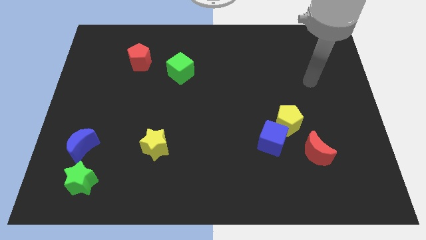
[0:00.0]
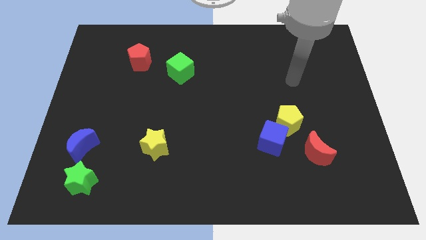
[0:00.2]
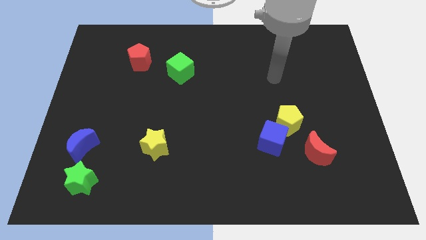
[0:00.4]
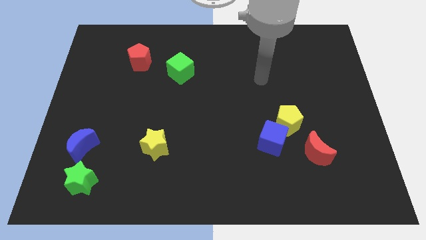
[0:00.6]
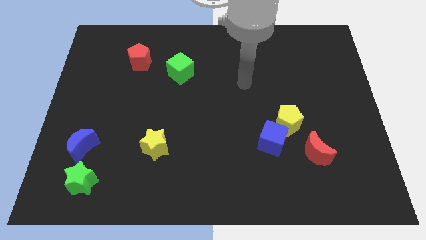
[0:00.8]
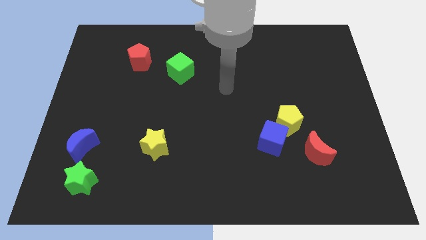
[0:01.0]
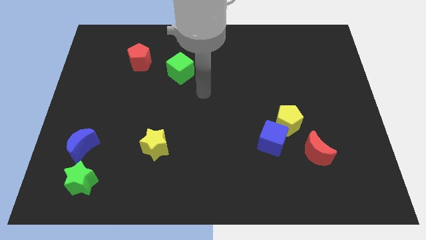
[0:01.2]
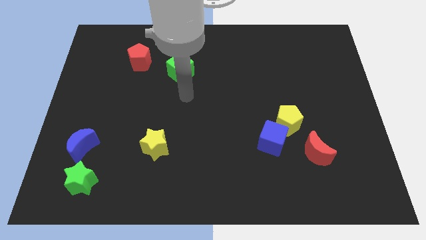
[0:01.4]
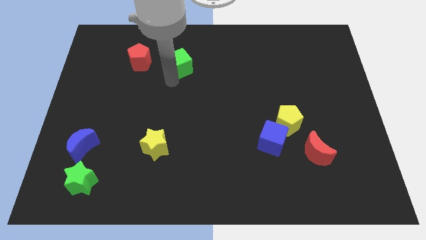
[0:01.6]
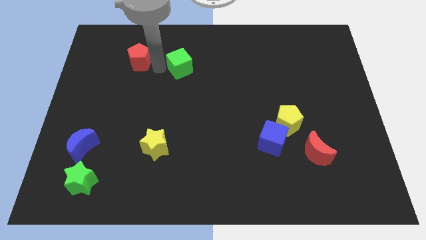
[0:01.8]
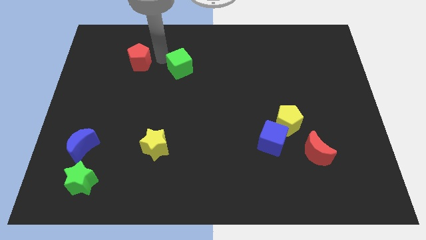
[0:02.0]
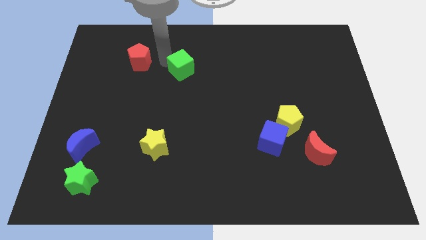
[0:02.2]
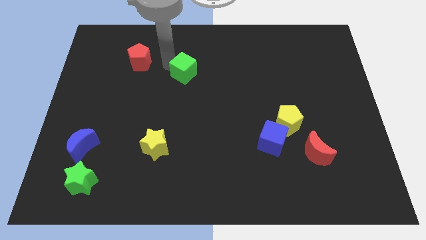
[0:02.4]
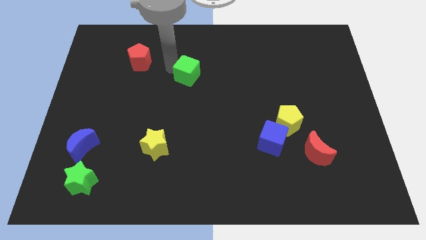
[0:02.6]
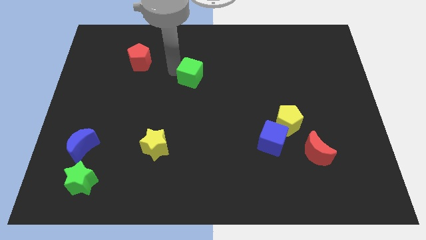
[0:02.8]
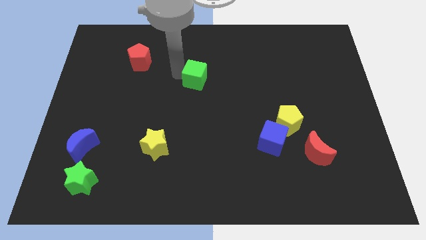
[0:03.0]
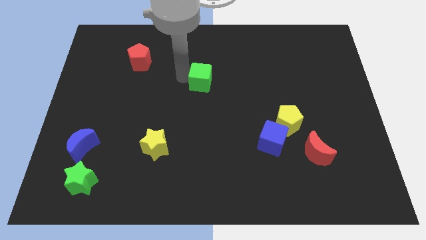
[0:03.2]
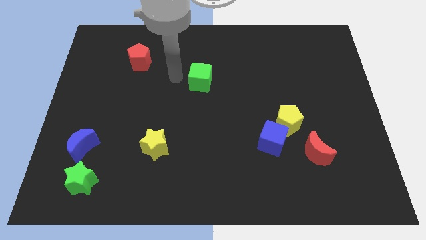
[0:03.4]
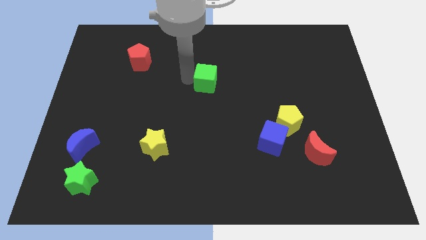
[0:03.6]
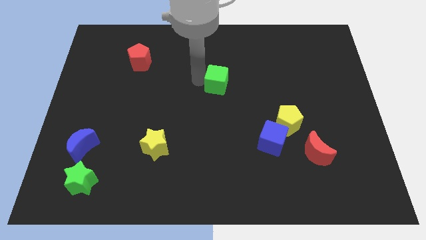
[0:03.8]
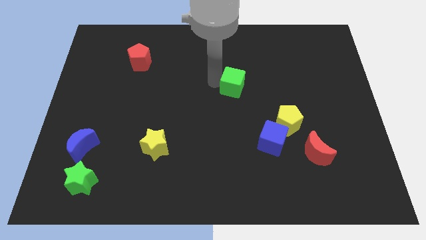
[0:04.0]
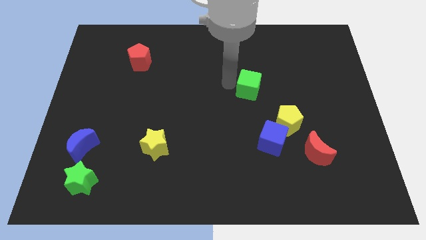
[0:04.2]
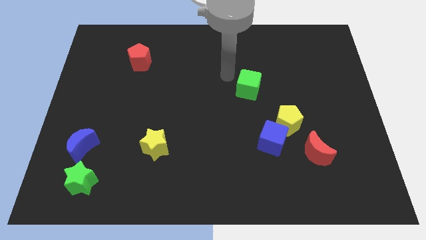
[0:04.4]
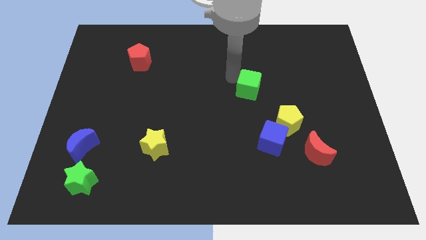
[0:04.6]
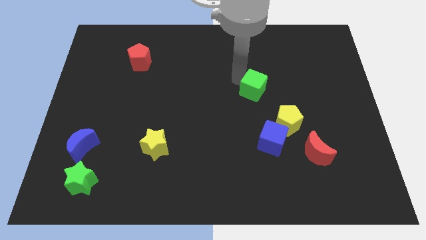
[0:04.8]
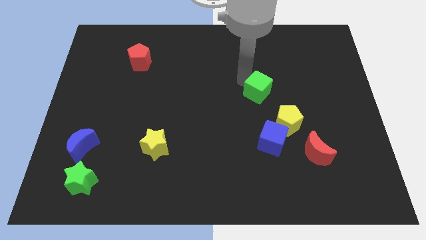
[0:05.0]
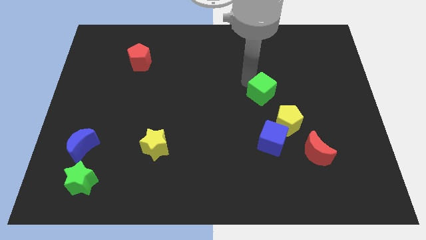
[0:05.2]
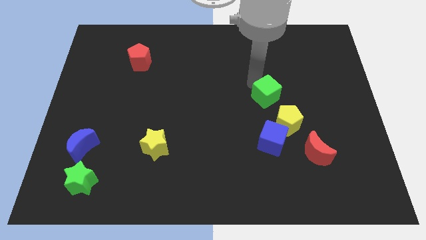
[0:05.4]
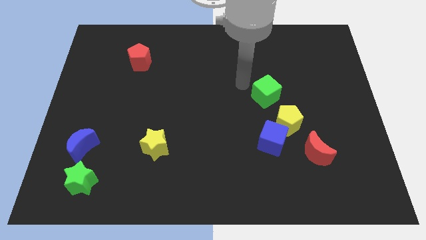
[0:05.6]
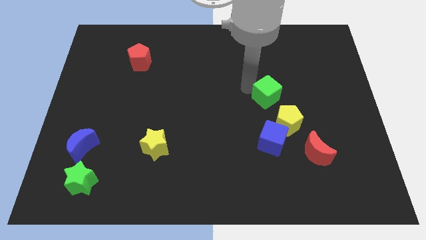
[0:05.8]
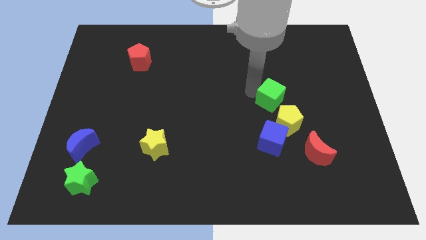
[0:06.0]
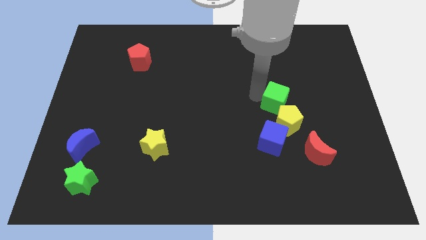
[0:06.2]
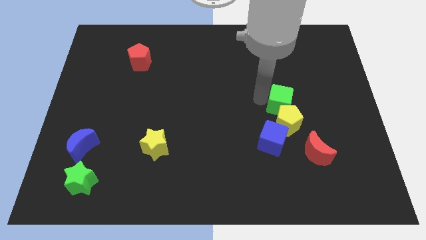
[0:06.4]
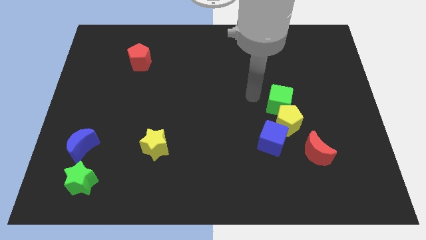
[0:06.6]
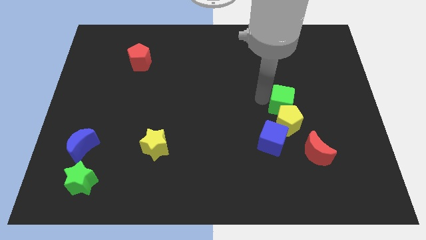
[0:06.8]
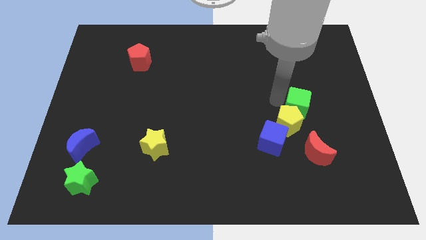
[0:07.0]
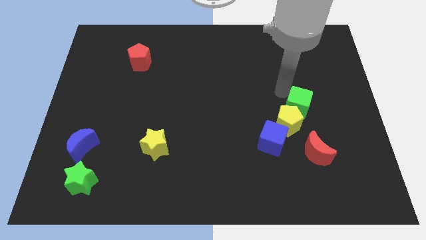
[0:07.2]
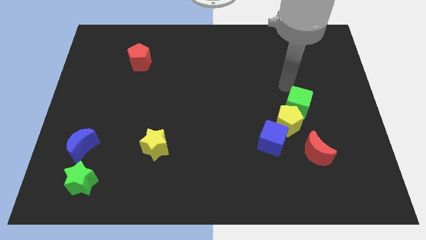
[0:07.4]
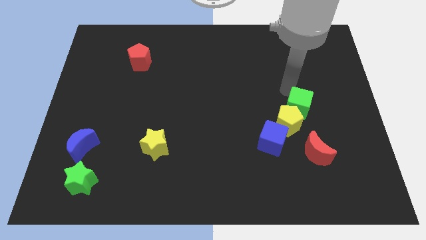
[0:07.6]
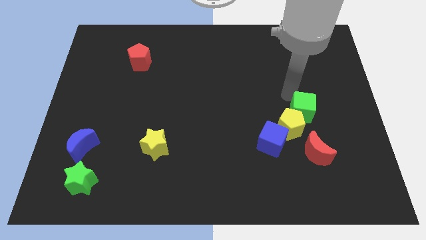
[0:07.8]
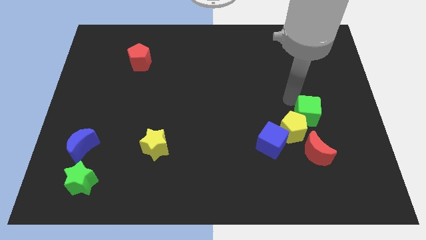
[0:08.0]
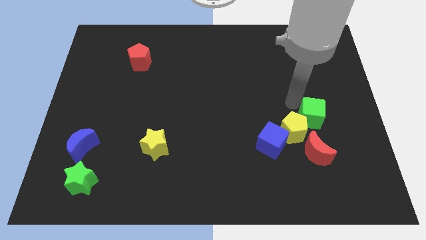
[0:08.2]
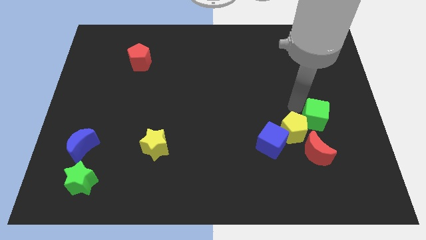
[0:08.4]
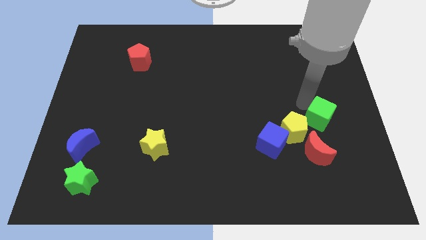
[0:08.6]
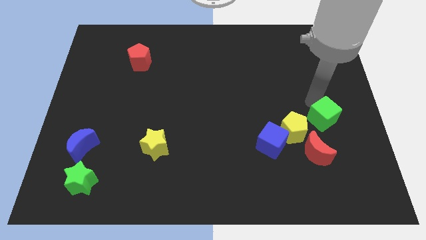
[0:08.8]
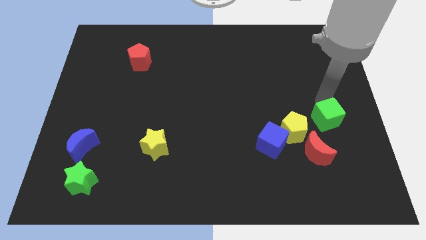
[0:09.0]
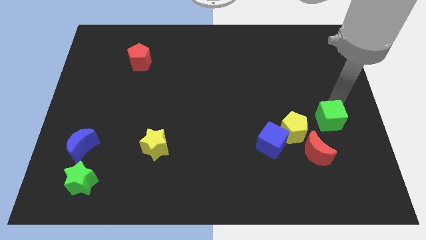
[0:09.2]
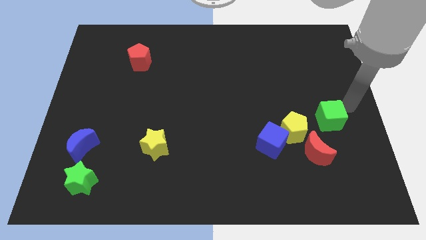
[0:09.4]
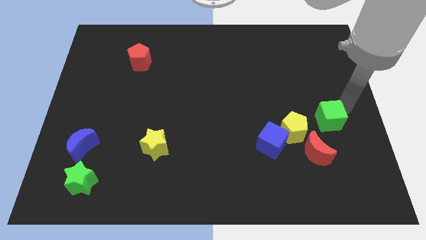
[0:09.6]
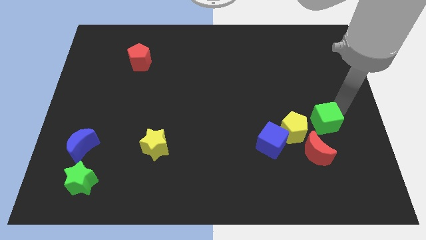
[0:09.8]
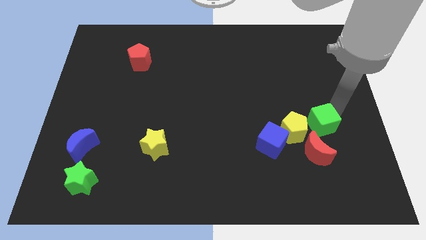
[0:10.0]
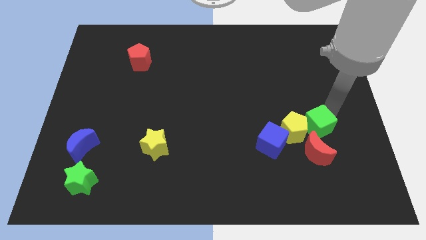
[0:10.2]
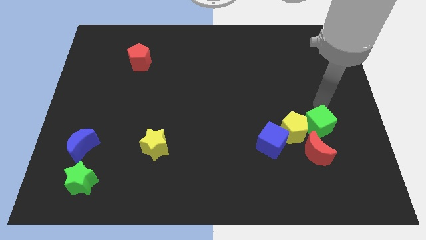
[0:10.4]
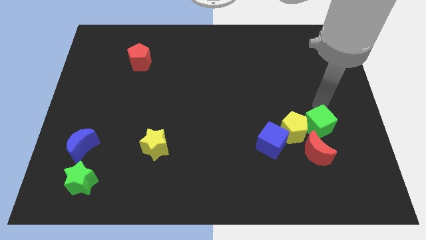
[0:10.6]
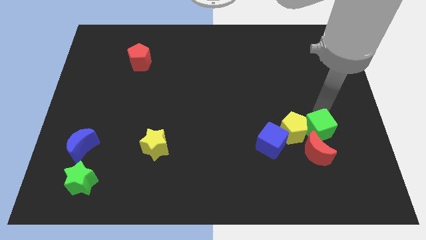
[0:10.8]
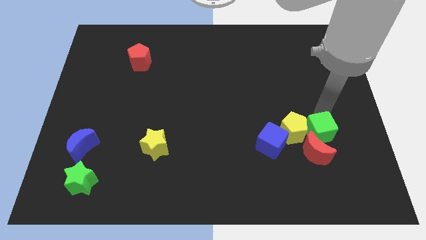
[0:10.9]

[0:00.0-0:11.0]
put the green cube next to the red moon

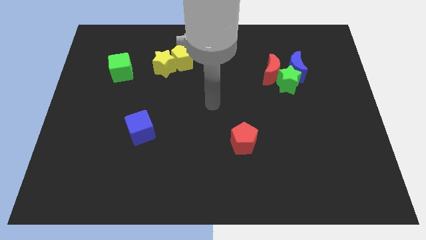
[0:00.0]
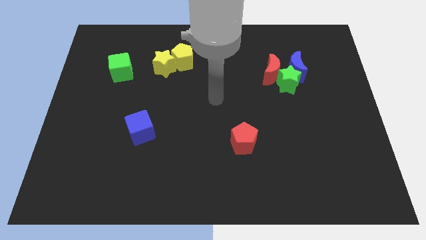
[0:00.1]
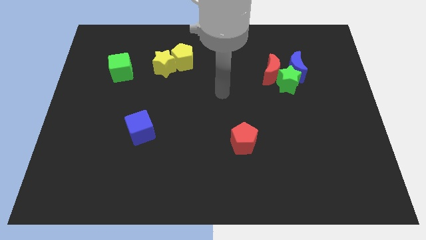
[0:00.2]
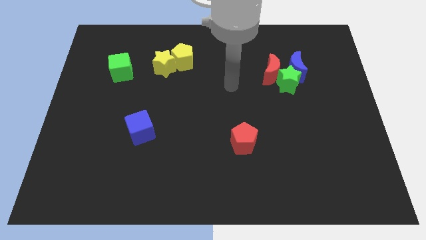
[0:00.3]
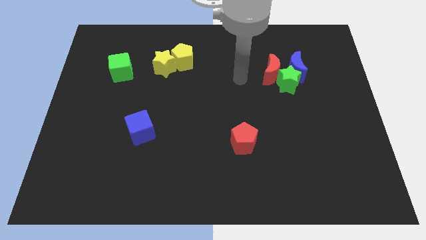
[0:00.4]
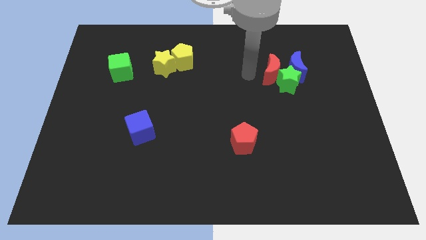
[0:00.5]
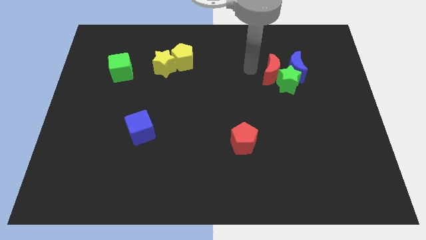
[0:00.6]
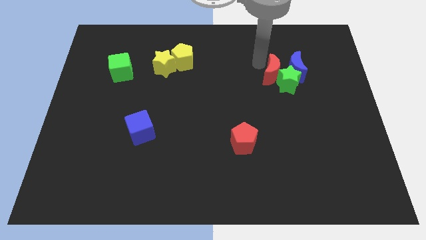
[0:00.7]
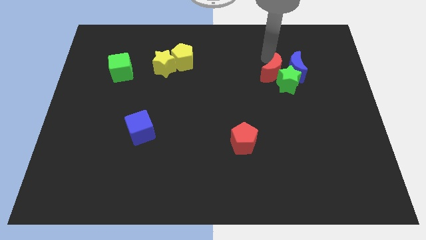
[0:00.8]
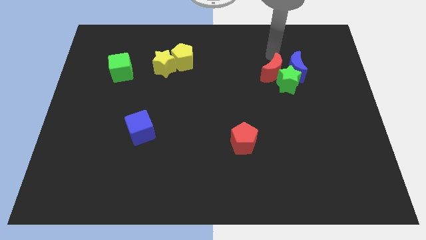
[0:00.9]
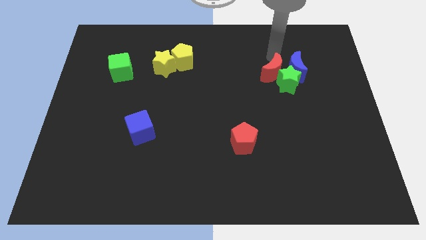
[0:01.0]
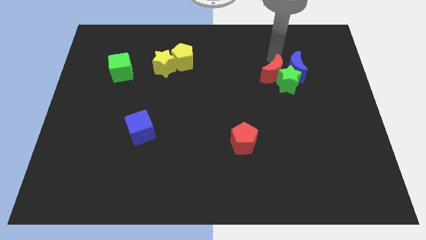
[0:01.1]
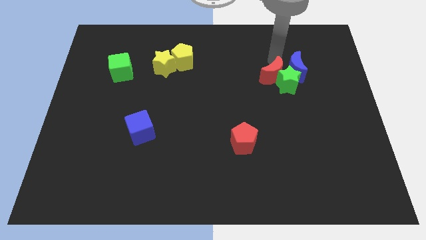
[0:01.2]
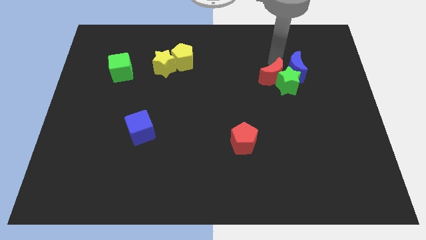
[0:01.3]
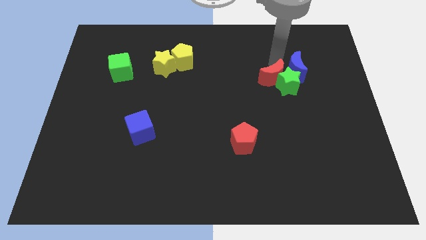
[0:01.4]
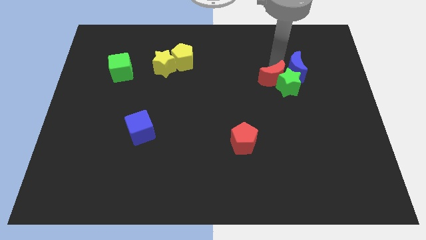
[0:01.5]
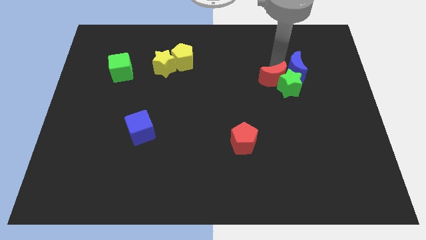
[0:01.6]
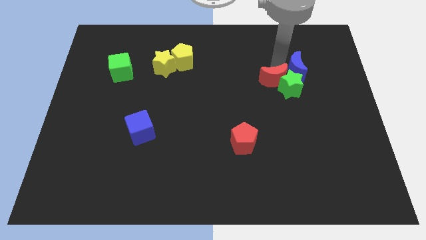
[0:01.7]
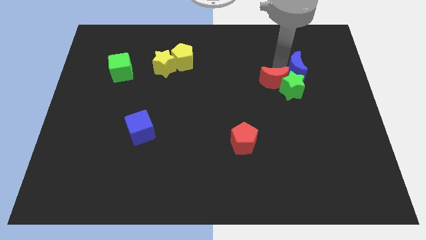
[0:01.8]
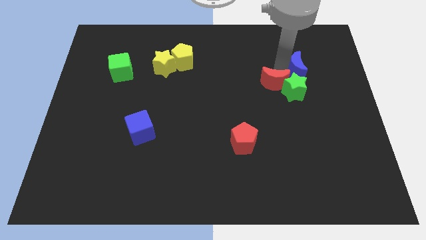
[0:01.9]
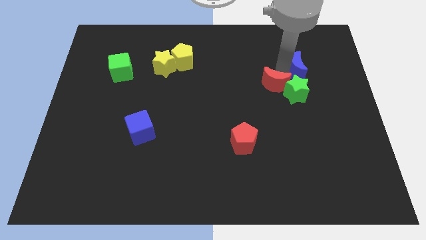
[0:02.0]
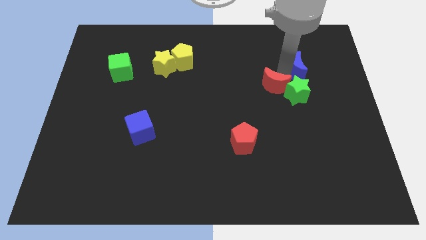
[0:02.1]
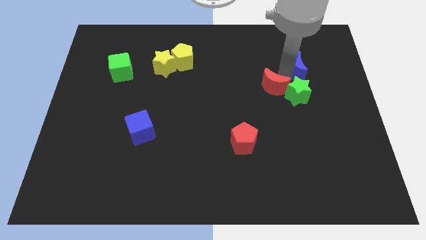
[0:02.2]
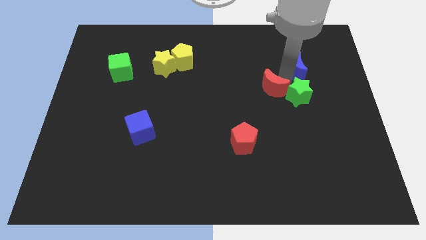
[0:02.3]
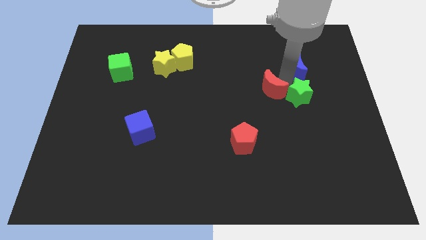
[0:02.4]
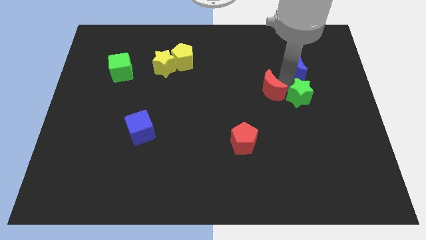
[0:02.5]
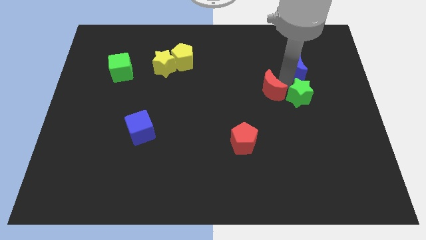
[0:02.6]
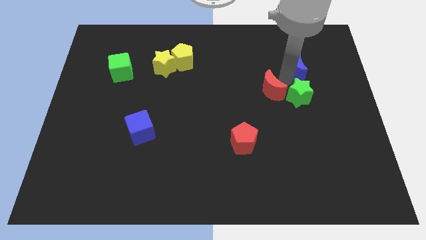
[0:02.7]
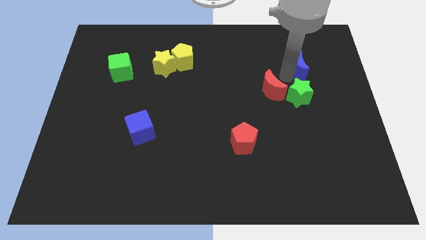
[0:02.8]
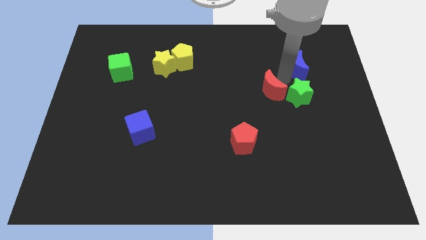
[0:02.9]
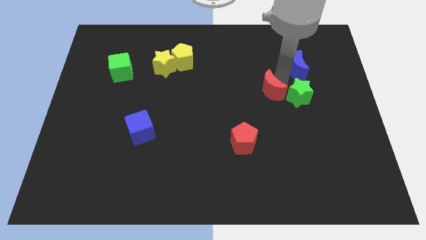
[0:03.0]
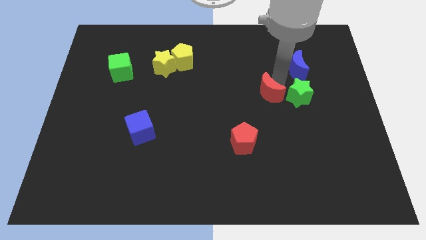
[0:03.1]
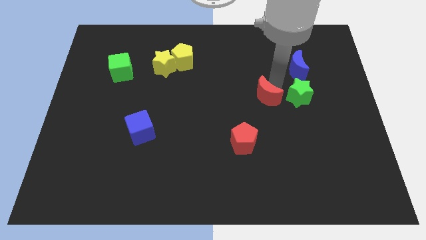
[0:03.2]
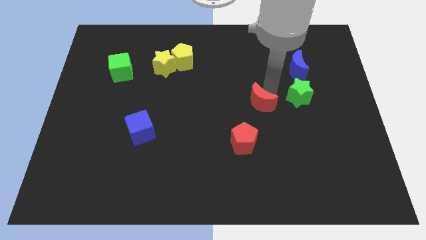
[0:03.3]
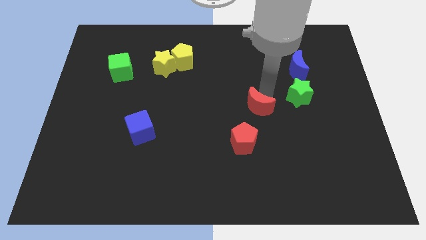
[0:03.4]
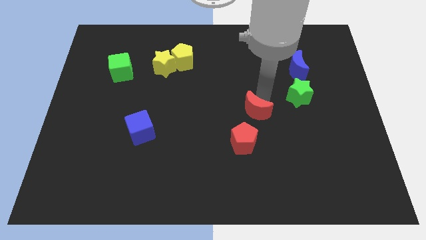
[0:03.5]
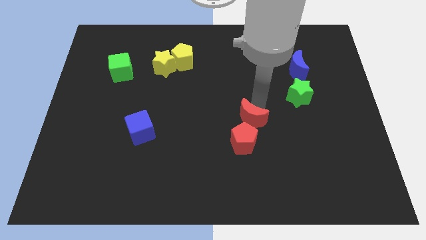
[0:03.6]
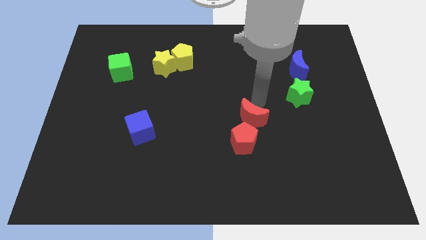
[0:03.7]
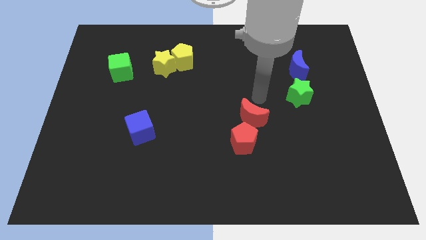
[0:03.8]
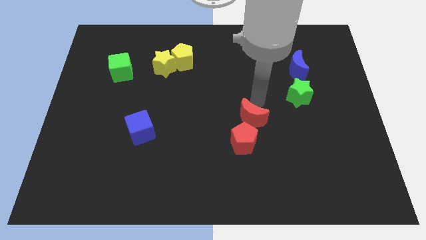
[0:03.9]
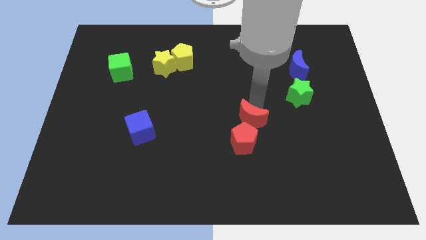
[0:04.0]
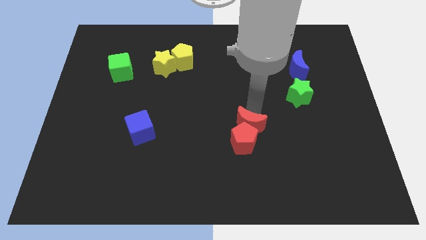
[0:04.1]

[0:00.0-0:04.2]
push the red moon close to the red pentagon
